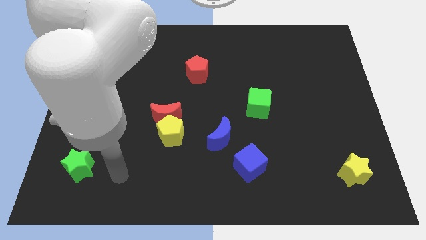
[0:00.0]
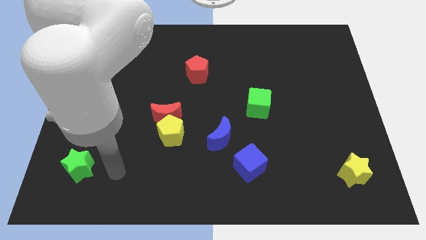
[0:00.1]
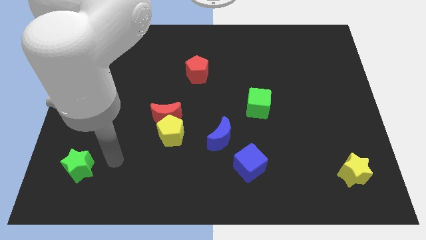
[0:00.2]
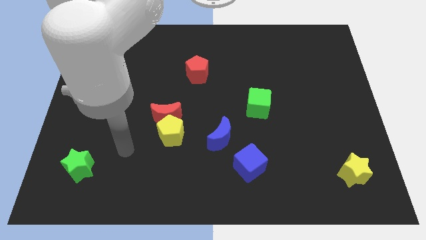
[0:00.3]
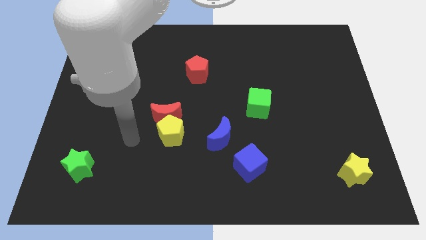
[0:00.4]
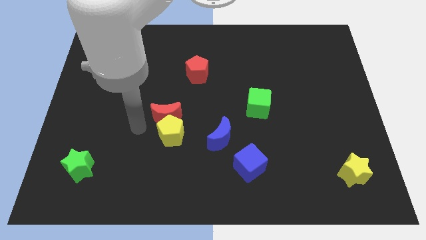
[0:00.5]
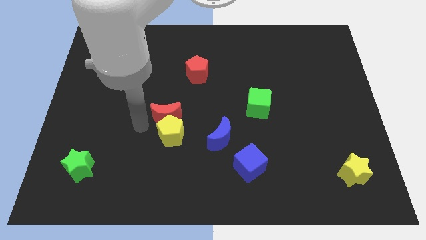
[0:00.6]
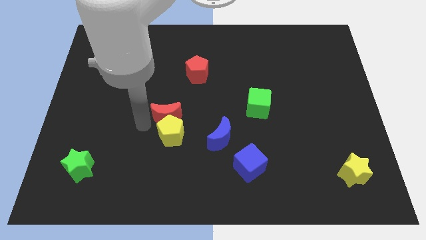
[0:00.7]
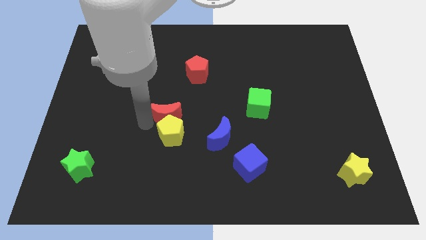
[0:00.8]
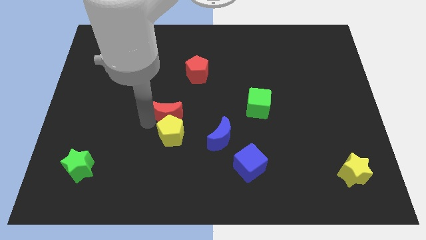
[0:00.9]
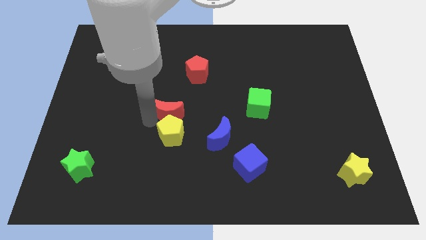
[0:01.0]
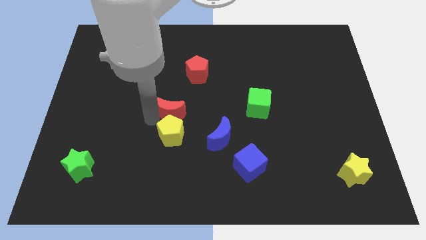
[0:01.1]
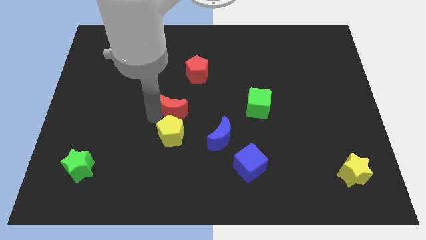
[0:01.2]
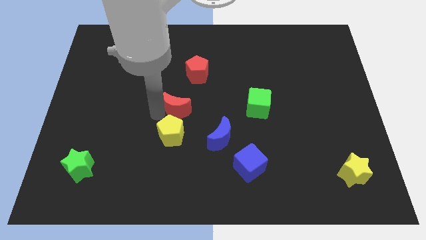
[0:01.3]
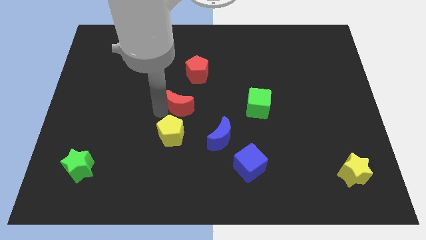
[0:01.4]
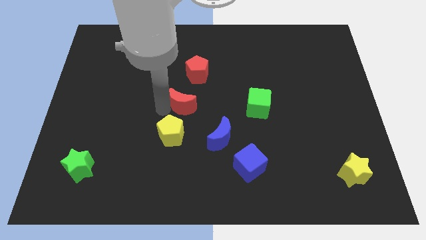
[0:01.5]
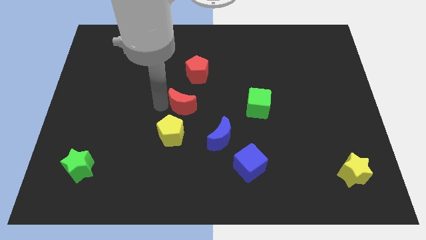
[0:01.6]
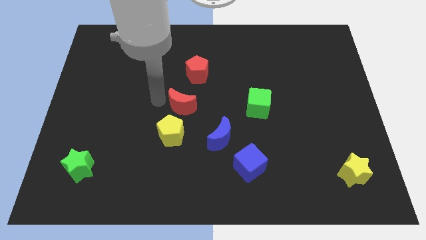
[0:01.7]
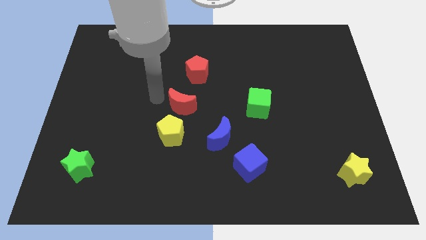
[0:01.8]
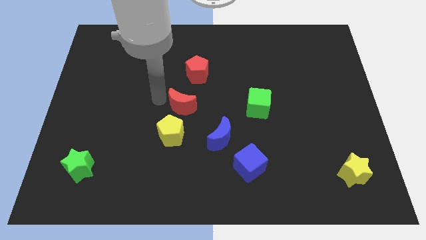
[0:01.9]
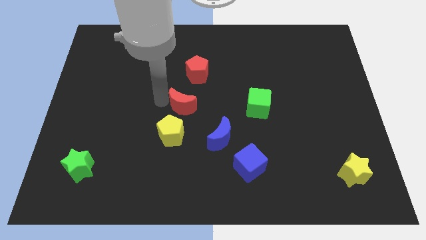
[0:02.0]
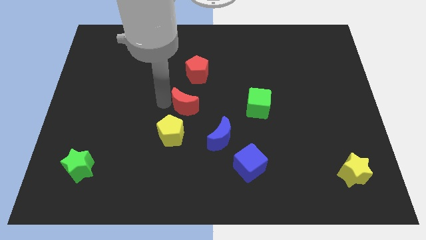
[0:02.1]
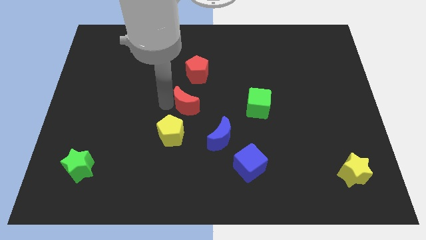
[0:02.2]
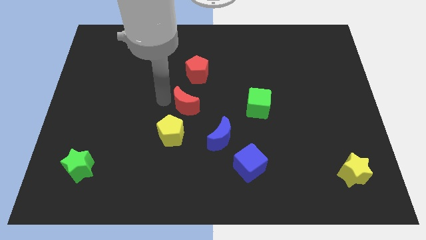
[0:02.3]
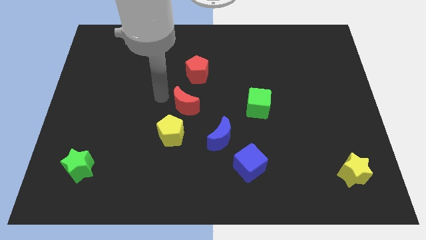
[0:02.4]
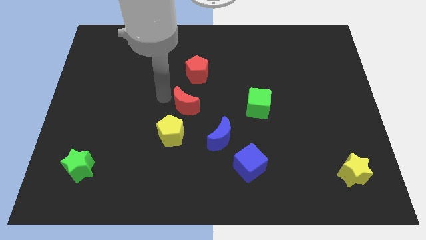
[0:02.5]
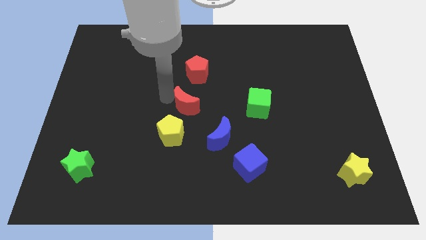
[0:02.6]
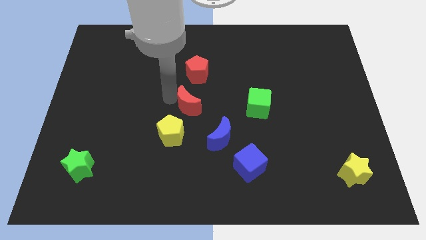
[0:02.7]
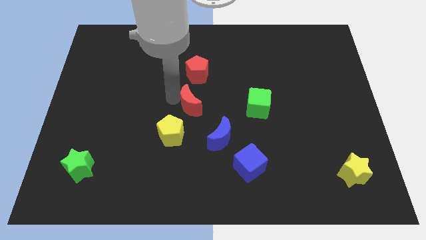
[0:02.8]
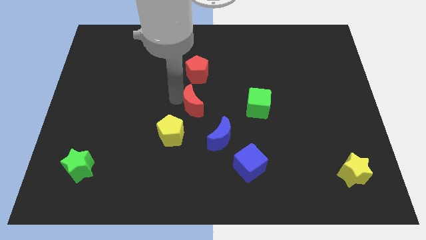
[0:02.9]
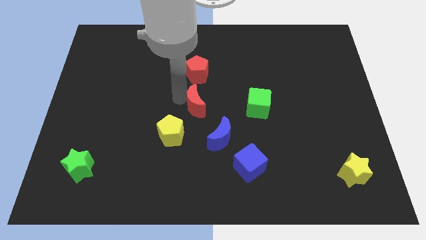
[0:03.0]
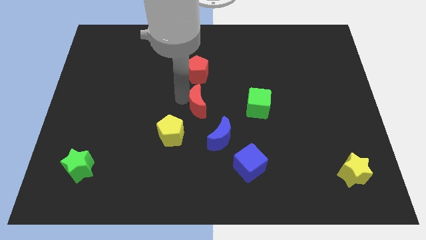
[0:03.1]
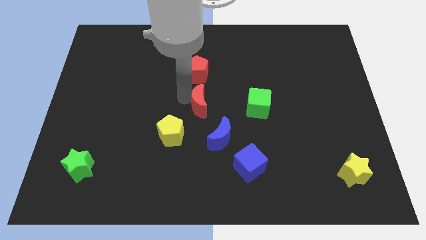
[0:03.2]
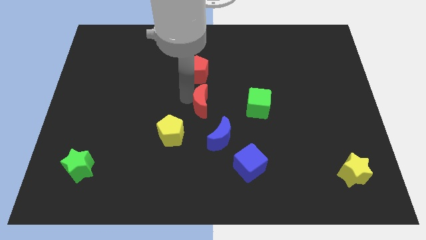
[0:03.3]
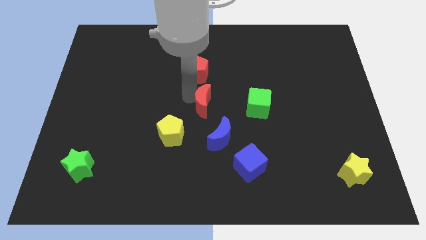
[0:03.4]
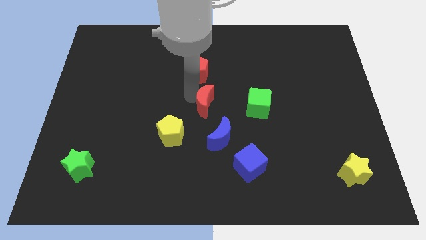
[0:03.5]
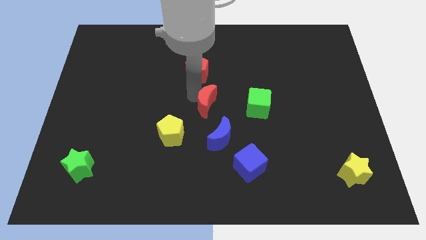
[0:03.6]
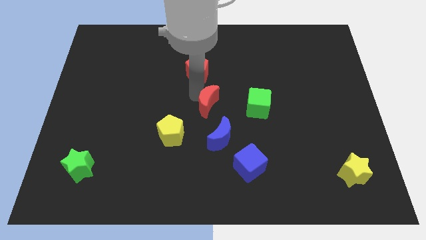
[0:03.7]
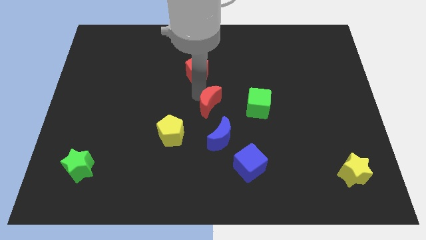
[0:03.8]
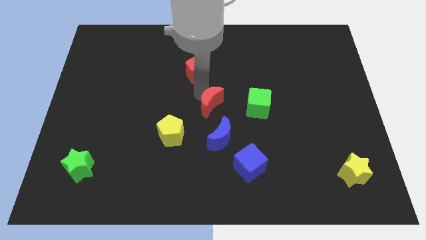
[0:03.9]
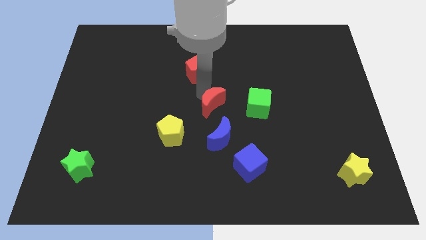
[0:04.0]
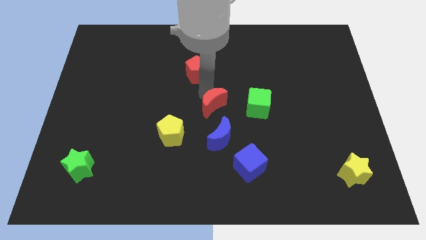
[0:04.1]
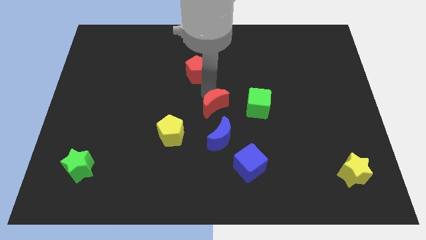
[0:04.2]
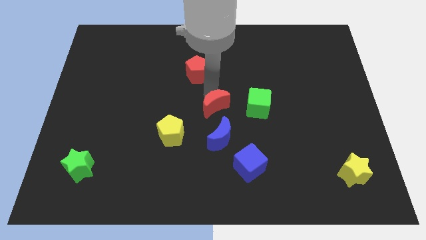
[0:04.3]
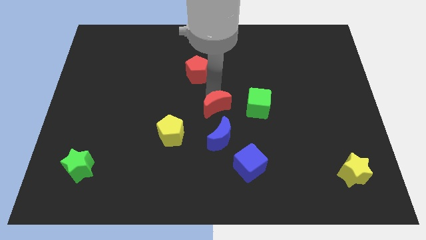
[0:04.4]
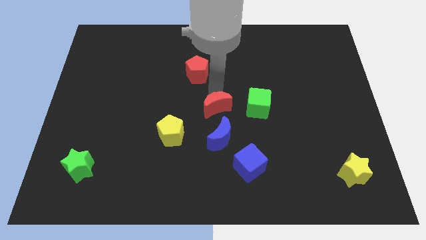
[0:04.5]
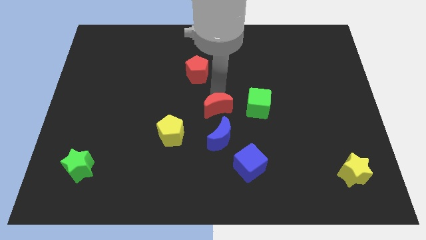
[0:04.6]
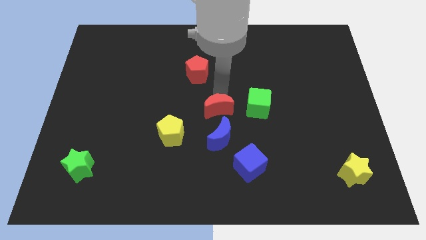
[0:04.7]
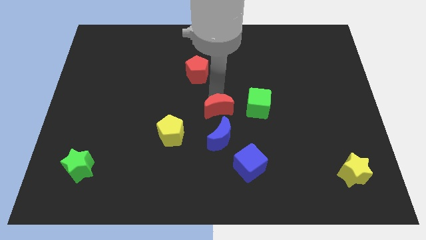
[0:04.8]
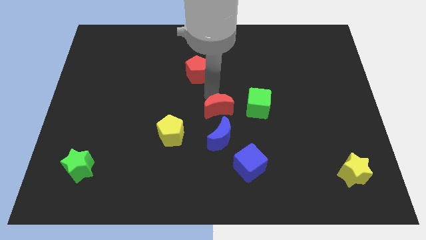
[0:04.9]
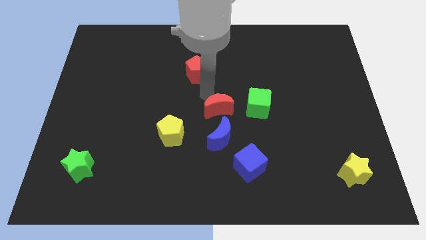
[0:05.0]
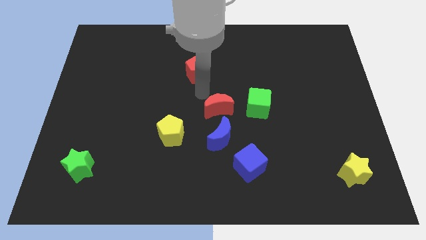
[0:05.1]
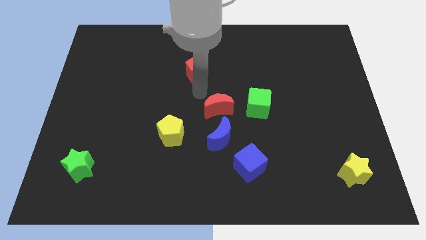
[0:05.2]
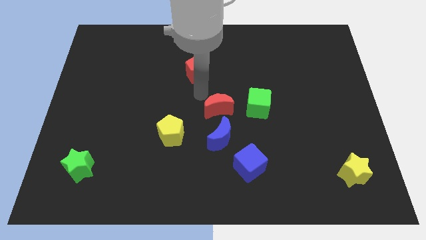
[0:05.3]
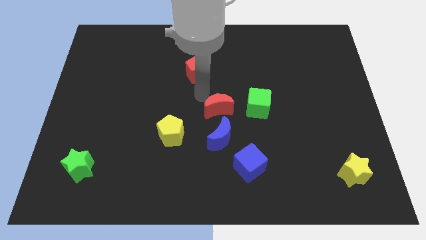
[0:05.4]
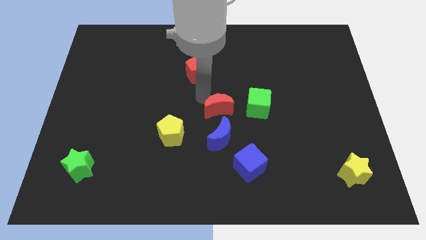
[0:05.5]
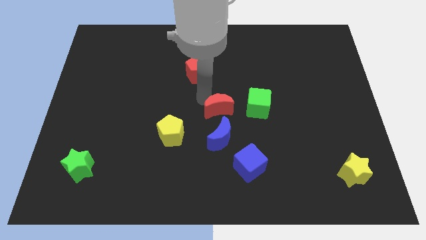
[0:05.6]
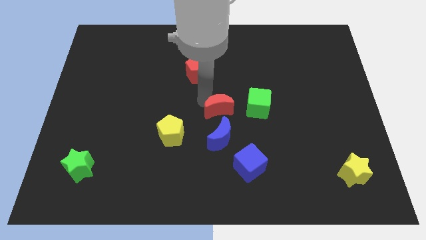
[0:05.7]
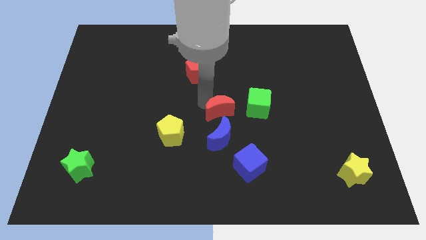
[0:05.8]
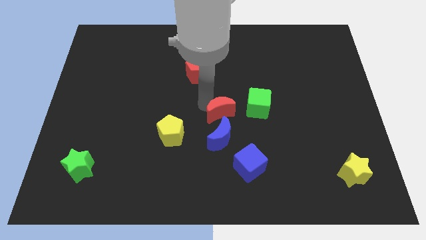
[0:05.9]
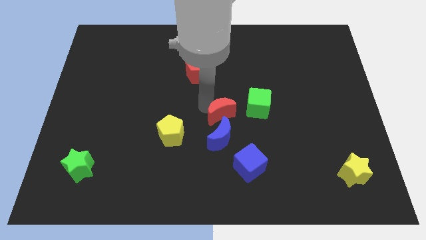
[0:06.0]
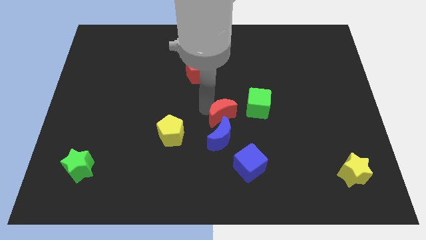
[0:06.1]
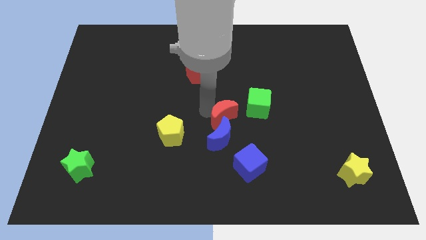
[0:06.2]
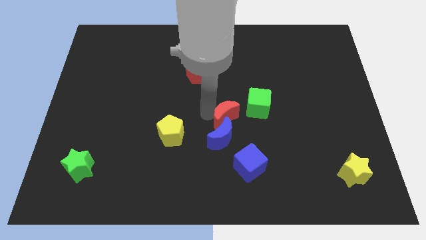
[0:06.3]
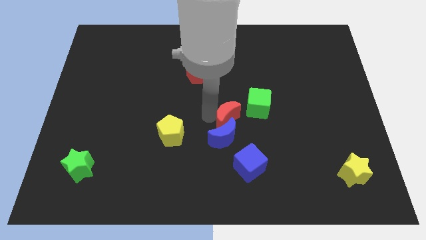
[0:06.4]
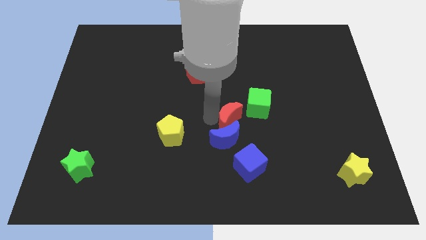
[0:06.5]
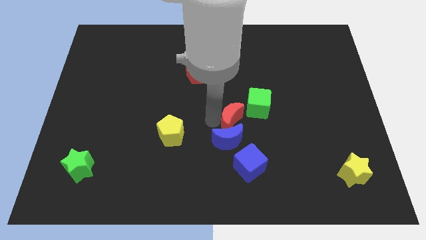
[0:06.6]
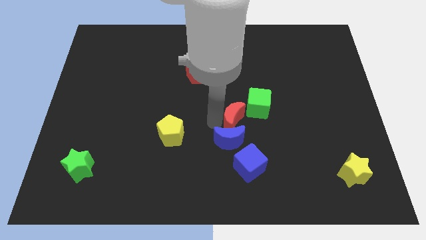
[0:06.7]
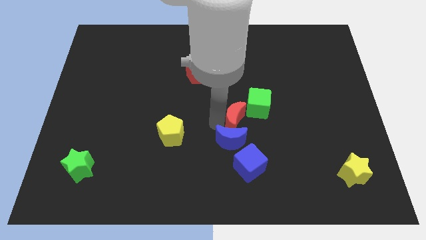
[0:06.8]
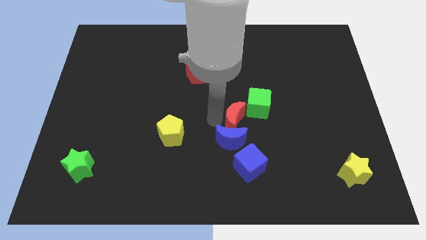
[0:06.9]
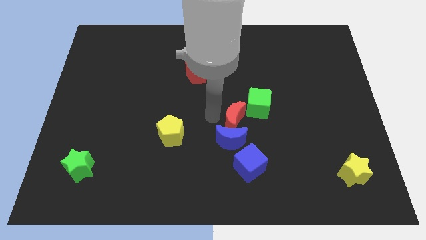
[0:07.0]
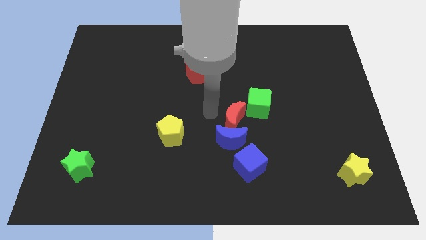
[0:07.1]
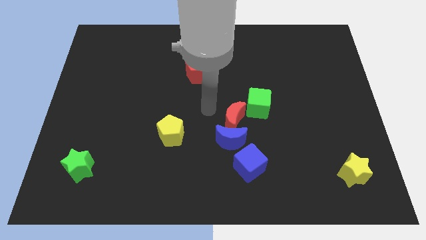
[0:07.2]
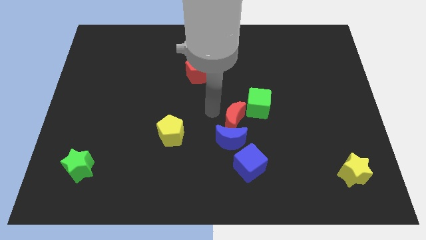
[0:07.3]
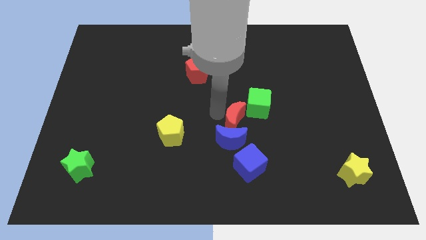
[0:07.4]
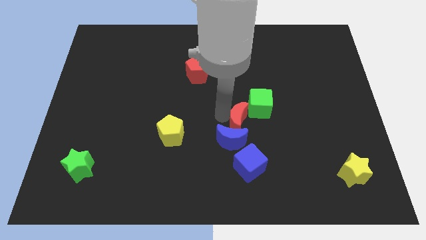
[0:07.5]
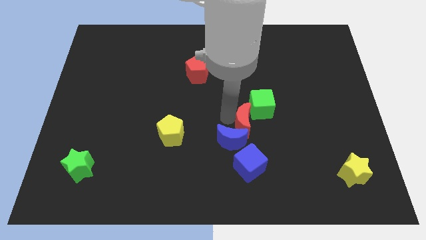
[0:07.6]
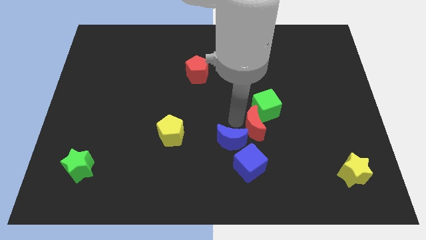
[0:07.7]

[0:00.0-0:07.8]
put the red moon to the right of the blue moon
